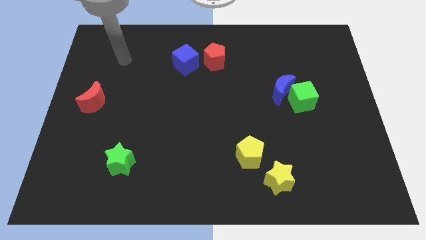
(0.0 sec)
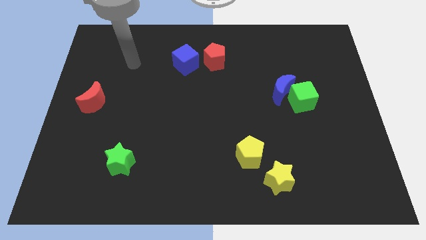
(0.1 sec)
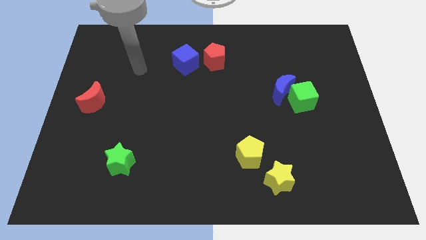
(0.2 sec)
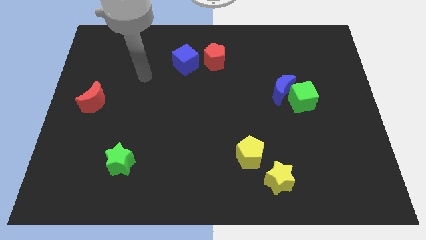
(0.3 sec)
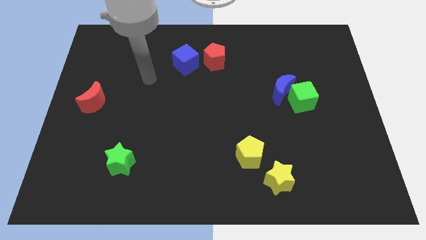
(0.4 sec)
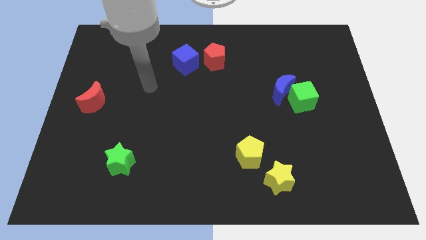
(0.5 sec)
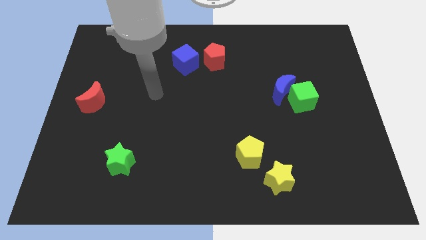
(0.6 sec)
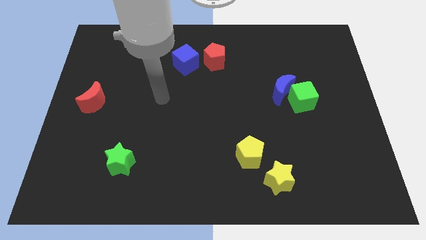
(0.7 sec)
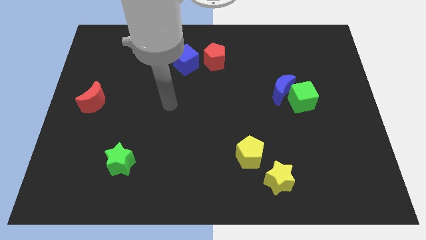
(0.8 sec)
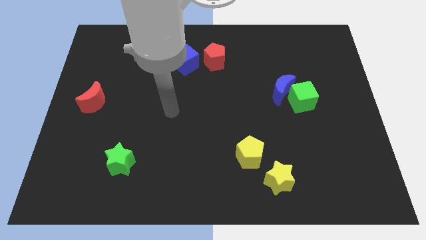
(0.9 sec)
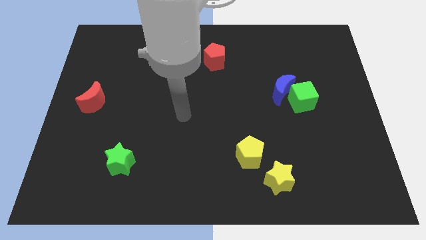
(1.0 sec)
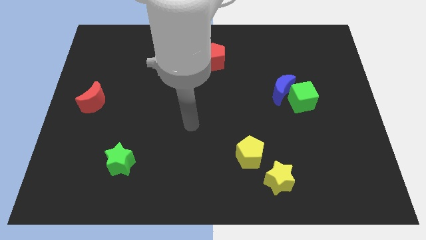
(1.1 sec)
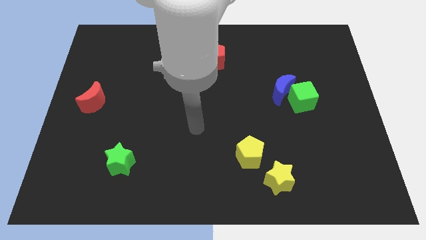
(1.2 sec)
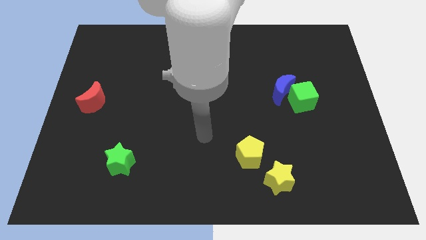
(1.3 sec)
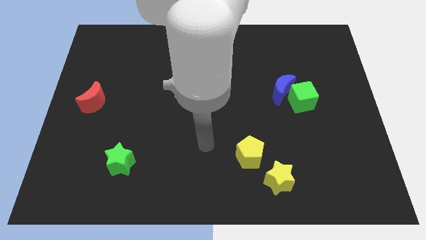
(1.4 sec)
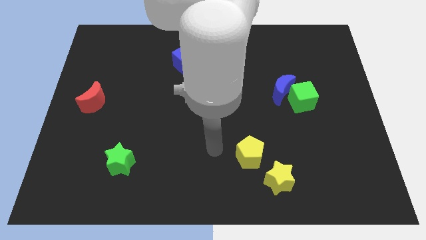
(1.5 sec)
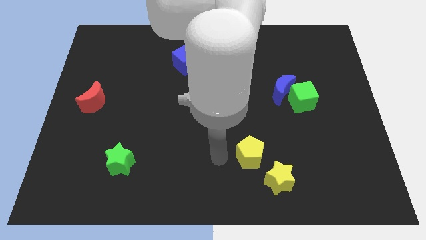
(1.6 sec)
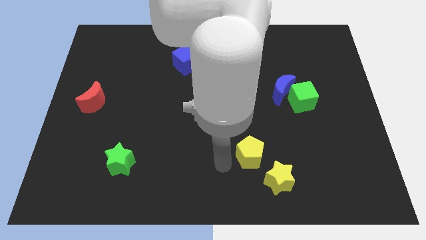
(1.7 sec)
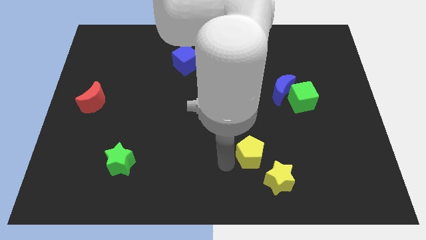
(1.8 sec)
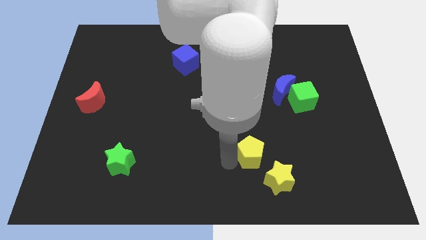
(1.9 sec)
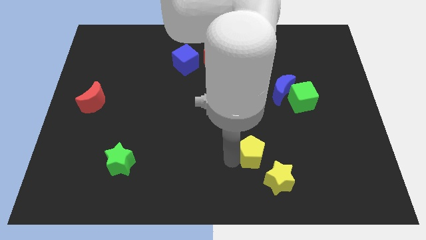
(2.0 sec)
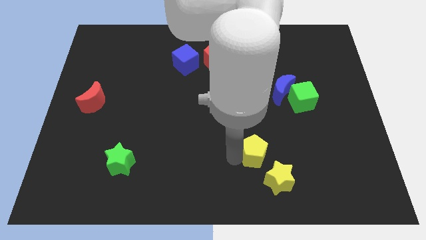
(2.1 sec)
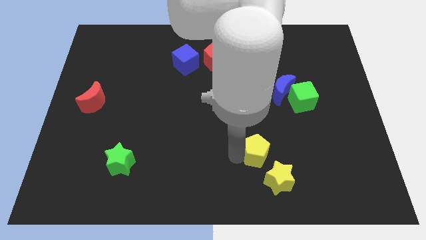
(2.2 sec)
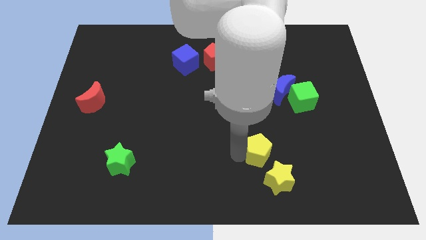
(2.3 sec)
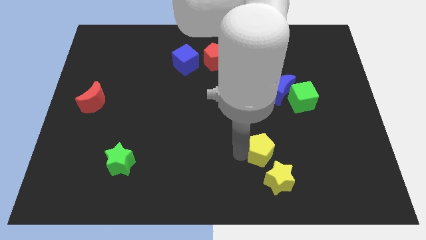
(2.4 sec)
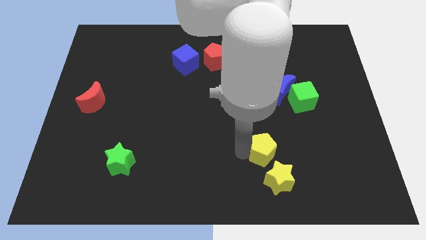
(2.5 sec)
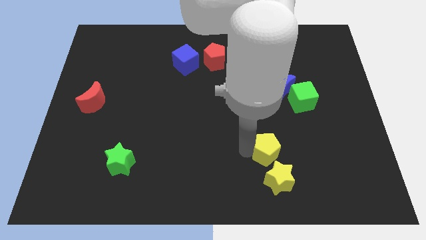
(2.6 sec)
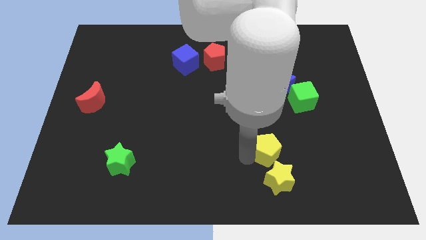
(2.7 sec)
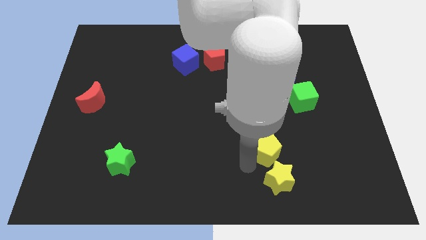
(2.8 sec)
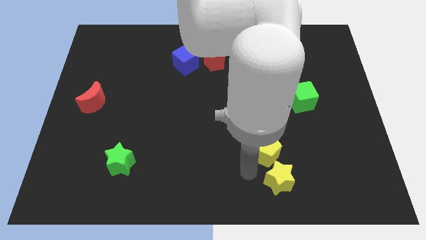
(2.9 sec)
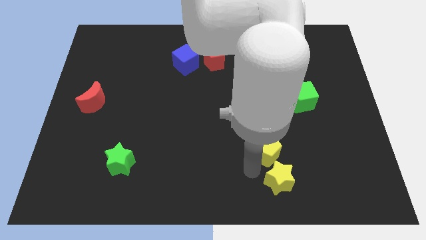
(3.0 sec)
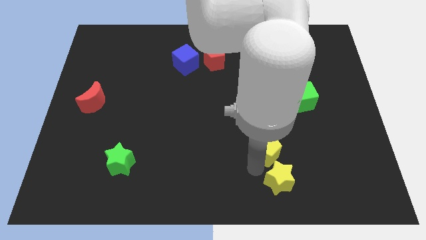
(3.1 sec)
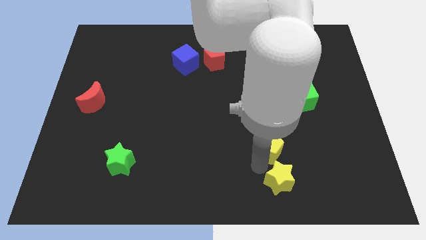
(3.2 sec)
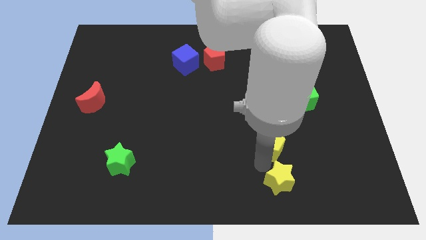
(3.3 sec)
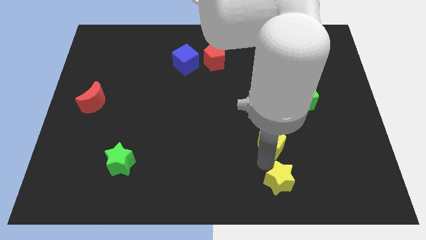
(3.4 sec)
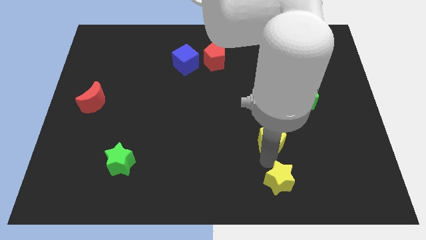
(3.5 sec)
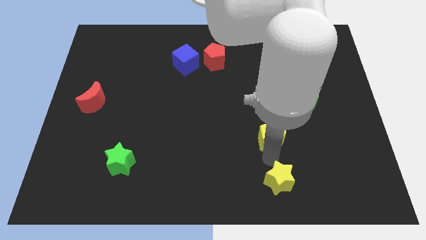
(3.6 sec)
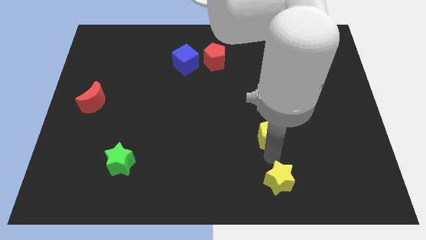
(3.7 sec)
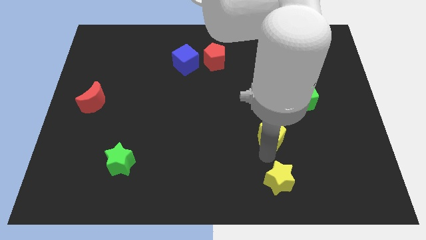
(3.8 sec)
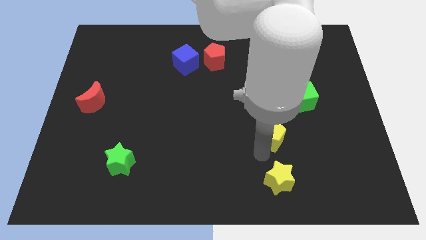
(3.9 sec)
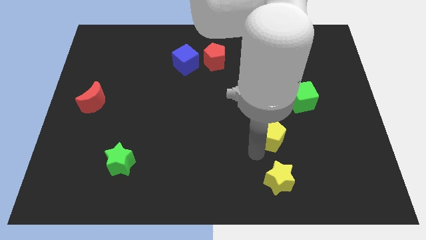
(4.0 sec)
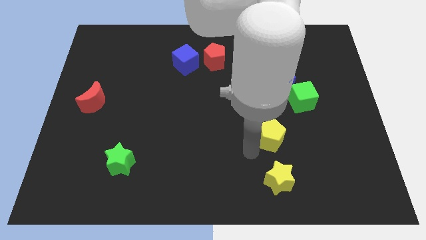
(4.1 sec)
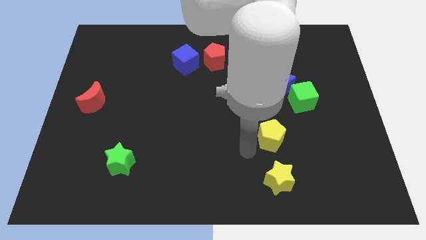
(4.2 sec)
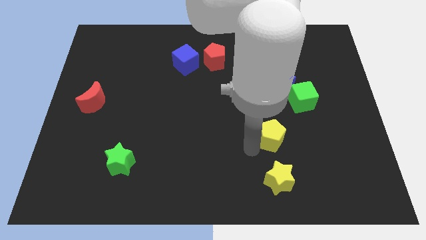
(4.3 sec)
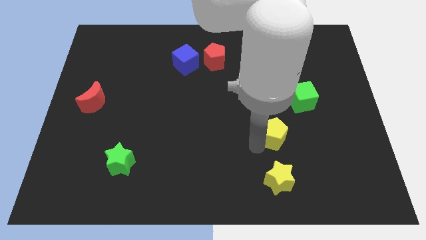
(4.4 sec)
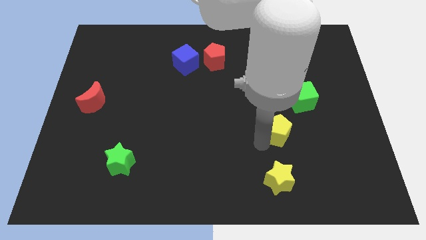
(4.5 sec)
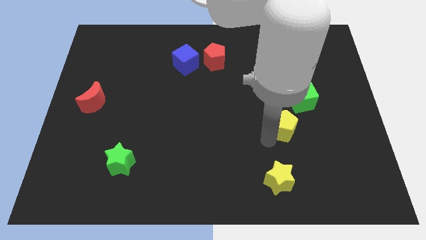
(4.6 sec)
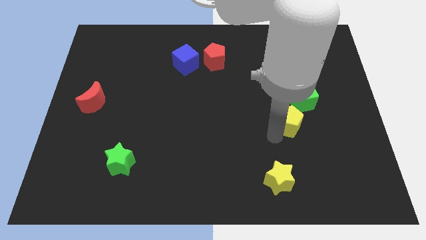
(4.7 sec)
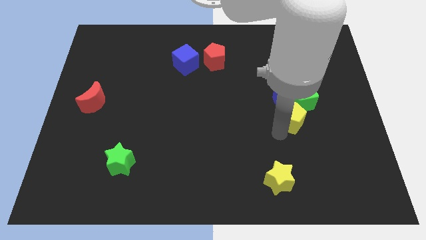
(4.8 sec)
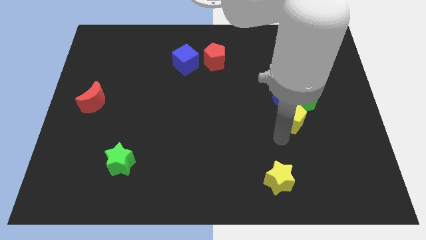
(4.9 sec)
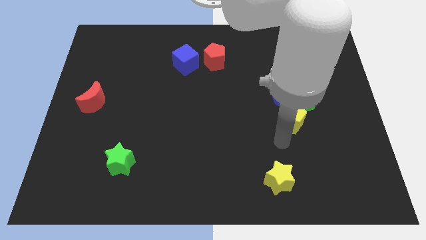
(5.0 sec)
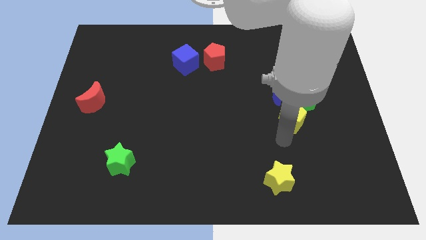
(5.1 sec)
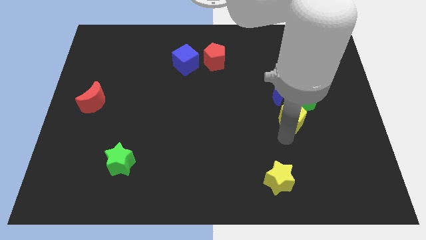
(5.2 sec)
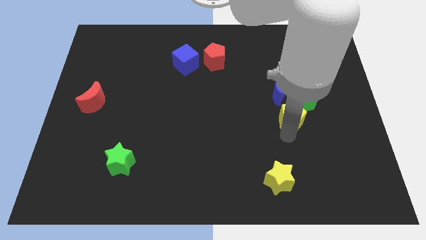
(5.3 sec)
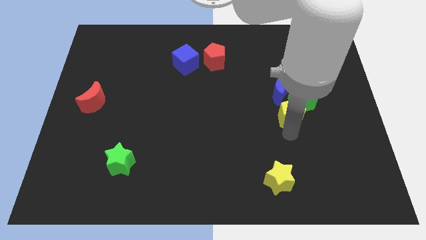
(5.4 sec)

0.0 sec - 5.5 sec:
push the yellow pentagon towards the green cube

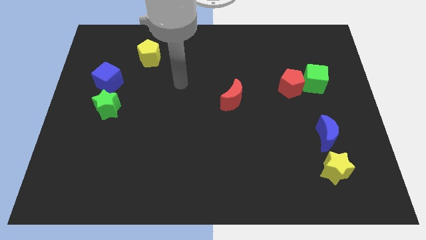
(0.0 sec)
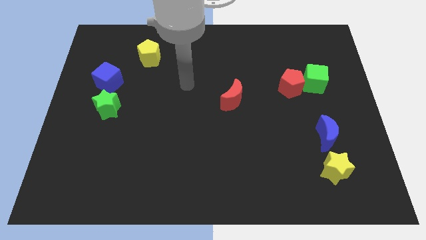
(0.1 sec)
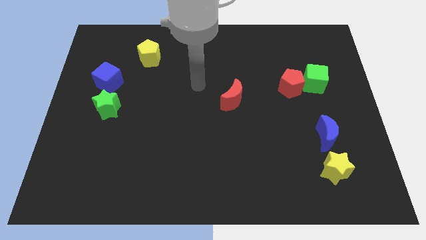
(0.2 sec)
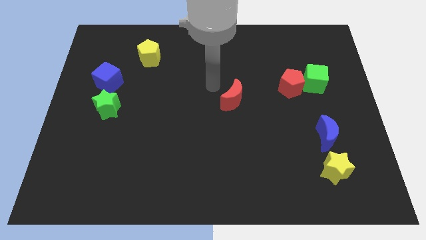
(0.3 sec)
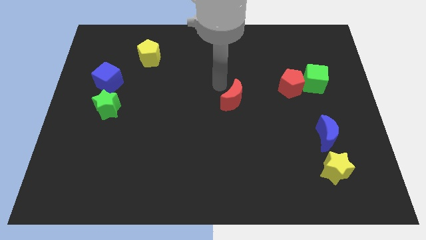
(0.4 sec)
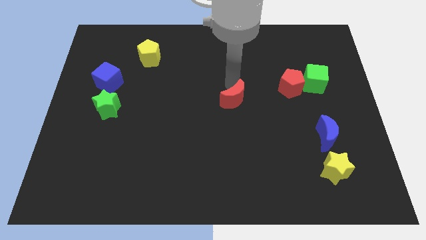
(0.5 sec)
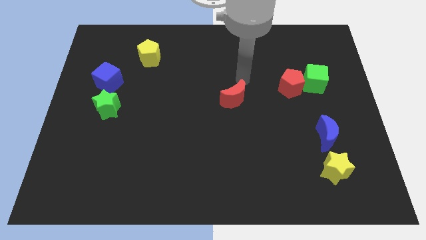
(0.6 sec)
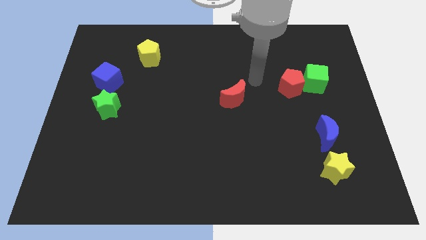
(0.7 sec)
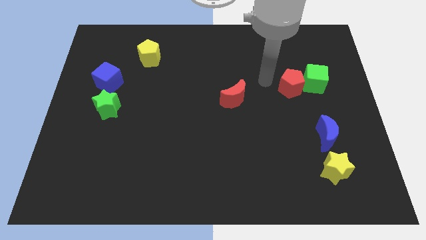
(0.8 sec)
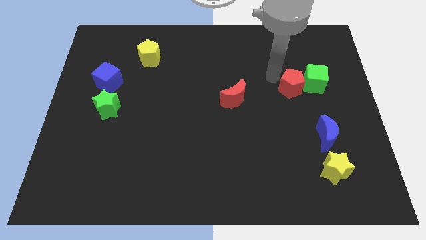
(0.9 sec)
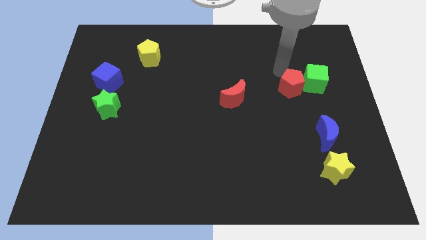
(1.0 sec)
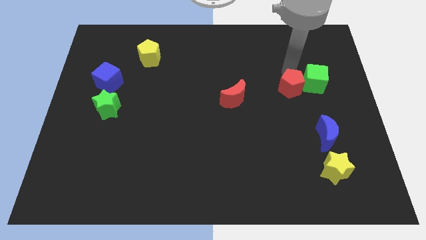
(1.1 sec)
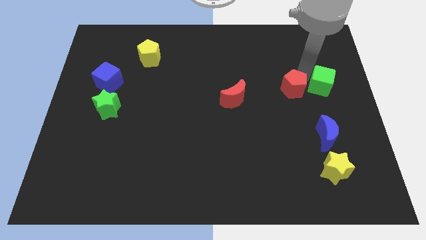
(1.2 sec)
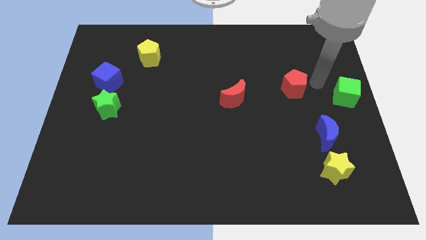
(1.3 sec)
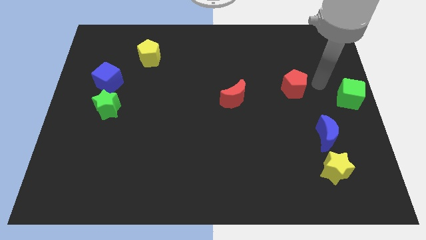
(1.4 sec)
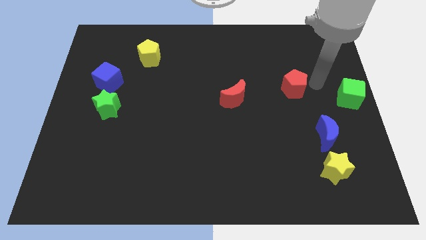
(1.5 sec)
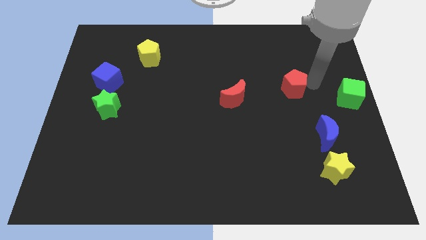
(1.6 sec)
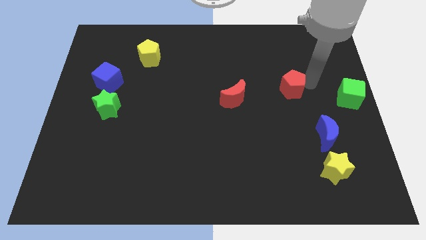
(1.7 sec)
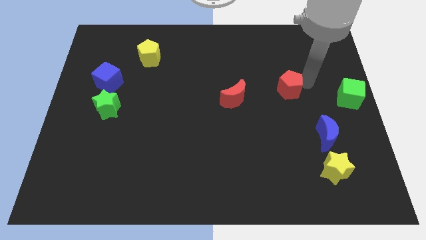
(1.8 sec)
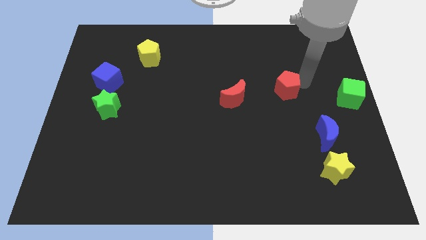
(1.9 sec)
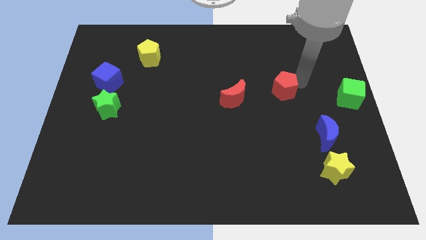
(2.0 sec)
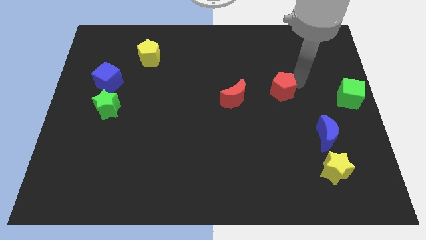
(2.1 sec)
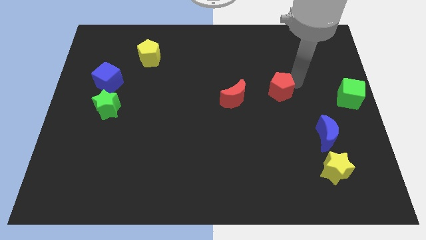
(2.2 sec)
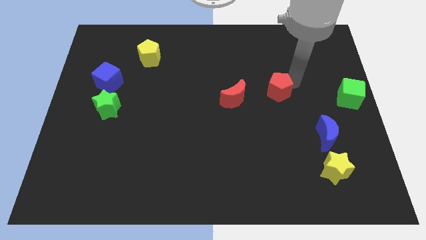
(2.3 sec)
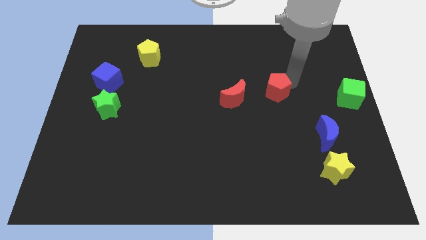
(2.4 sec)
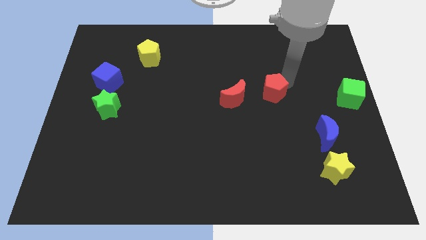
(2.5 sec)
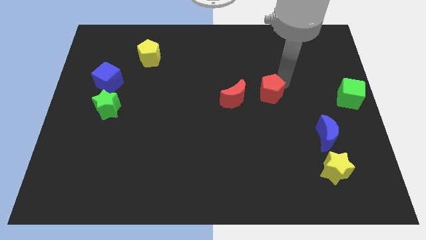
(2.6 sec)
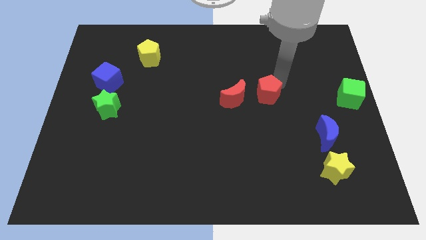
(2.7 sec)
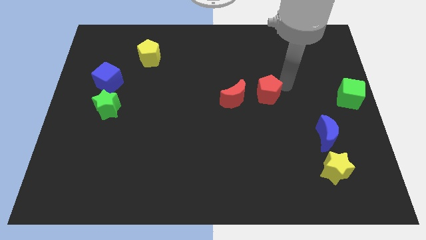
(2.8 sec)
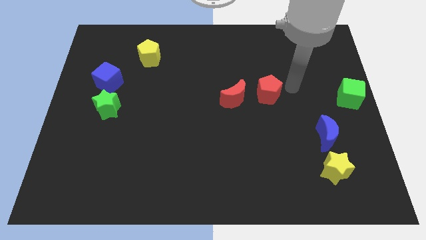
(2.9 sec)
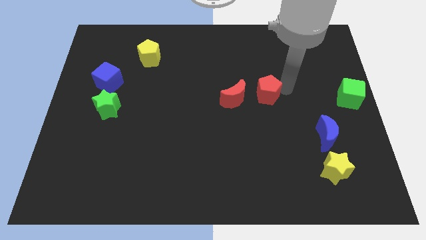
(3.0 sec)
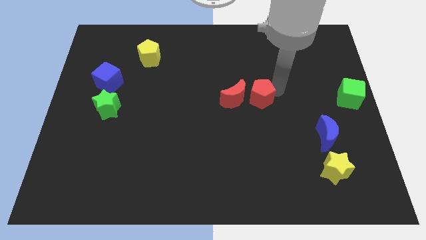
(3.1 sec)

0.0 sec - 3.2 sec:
move the red pentagon close to the red moon
